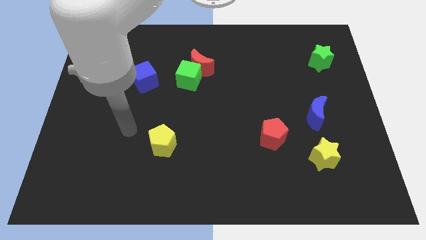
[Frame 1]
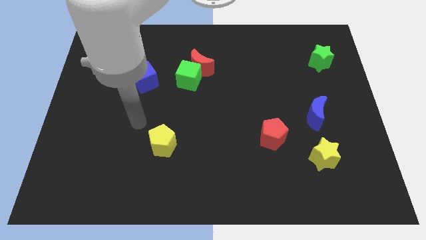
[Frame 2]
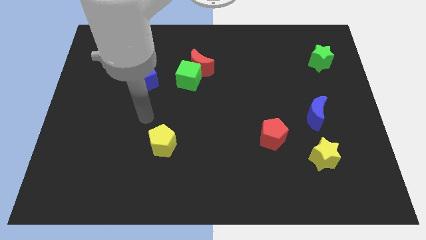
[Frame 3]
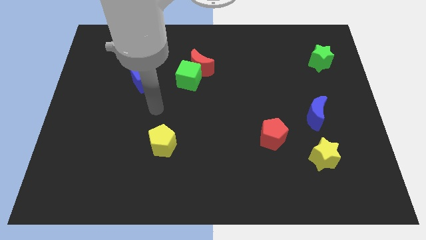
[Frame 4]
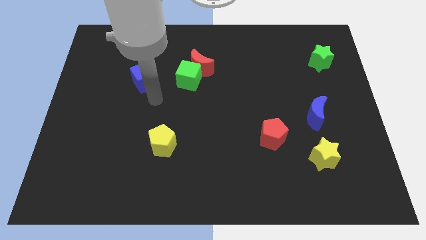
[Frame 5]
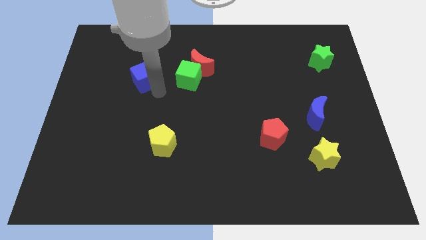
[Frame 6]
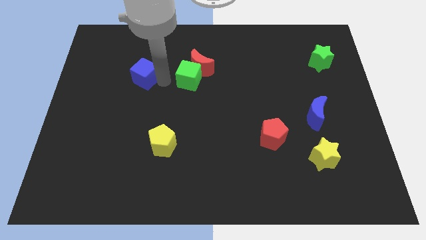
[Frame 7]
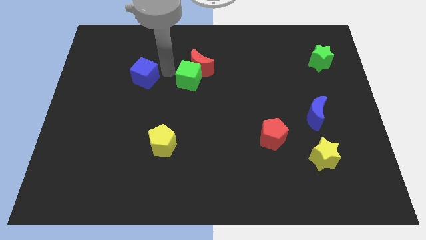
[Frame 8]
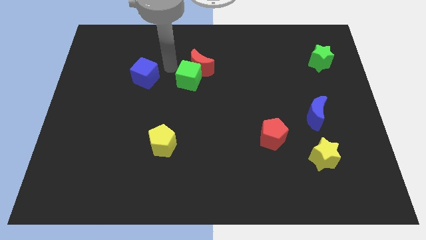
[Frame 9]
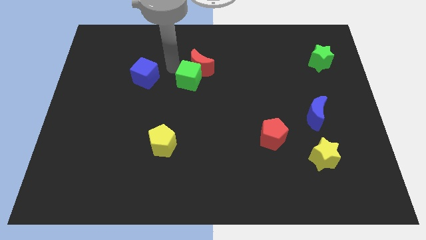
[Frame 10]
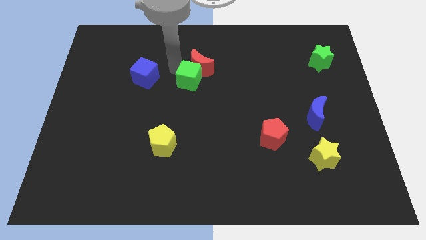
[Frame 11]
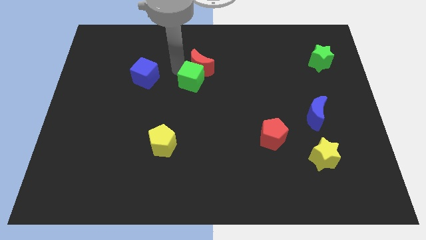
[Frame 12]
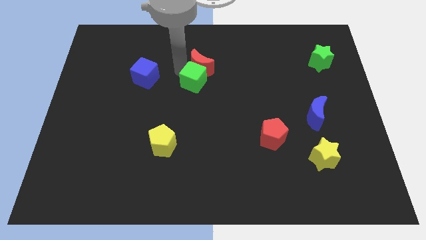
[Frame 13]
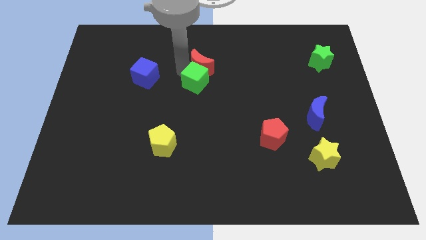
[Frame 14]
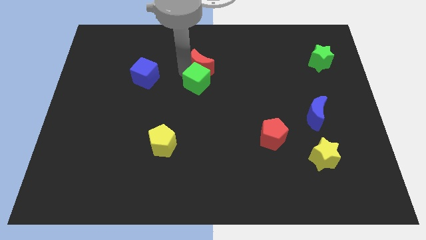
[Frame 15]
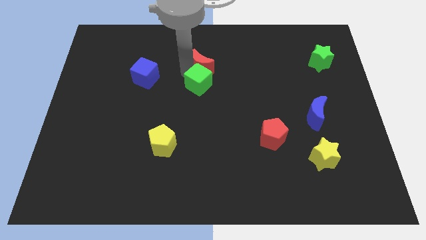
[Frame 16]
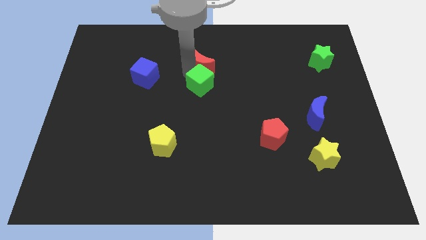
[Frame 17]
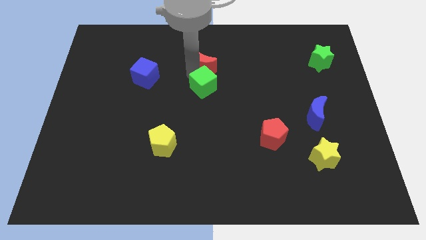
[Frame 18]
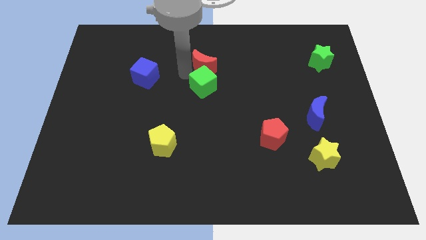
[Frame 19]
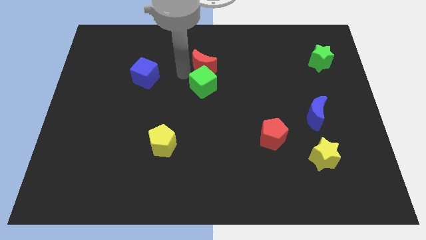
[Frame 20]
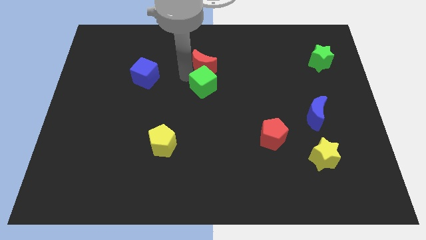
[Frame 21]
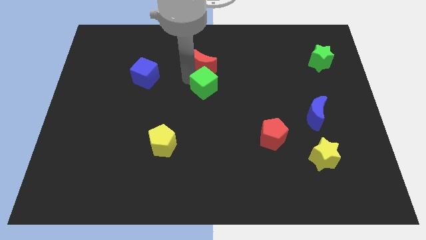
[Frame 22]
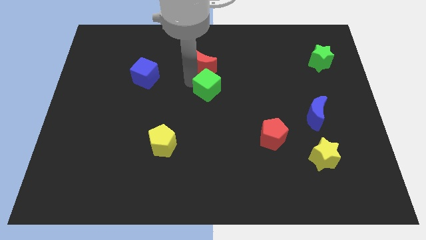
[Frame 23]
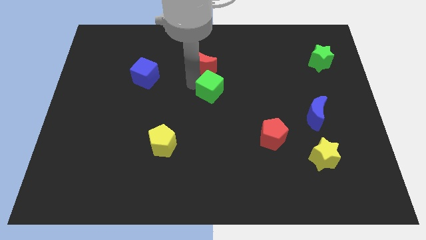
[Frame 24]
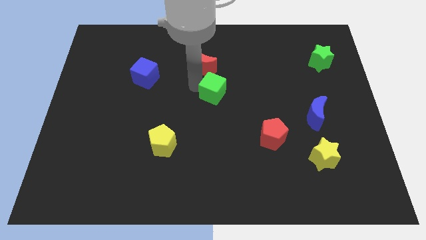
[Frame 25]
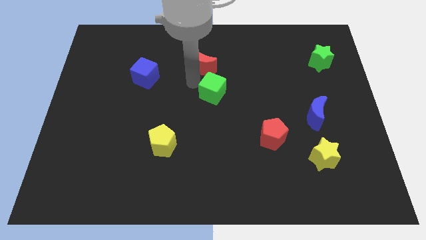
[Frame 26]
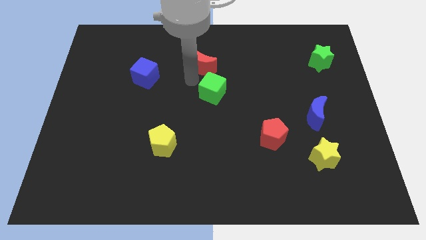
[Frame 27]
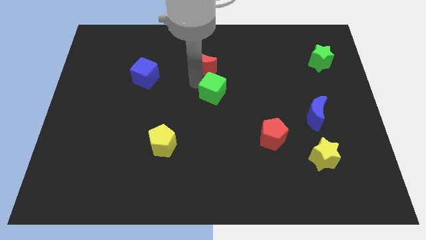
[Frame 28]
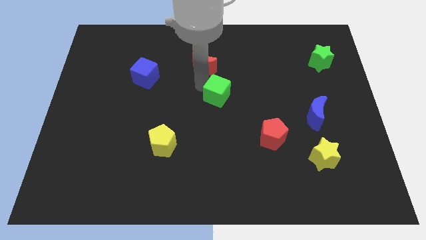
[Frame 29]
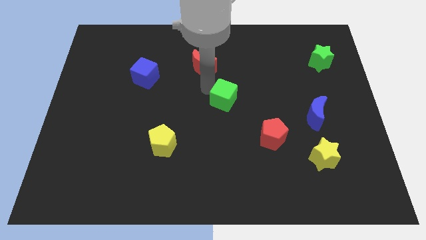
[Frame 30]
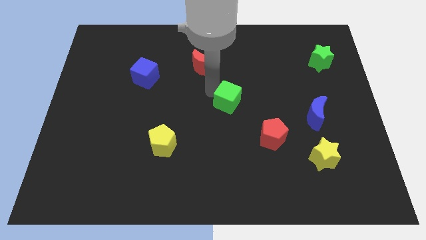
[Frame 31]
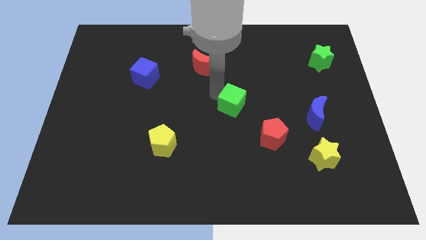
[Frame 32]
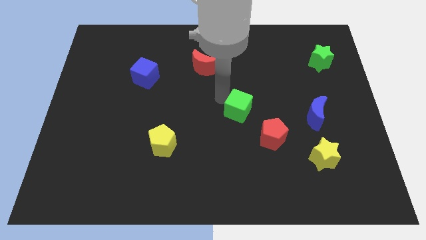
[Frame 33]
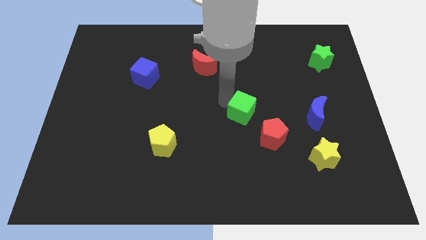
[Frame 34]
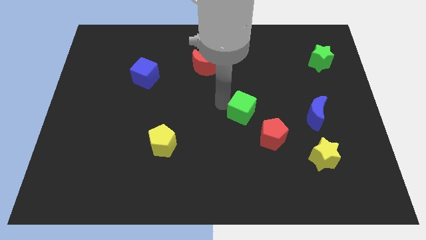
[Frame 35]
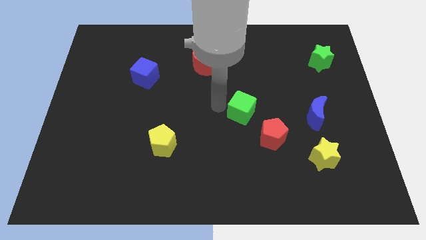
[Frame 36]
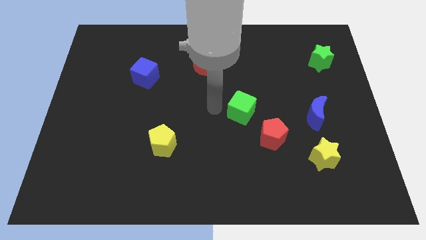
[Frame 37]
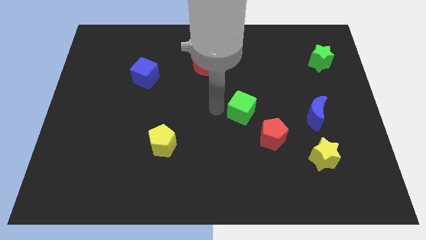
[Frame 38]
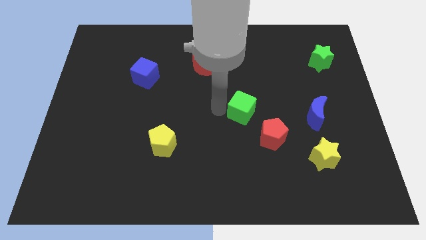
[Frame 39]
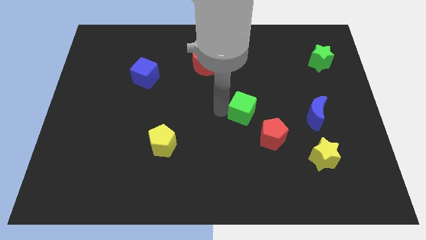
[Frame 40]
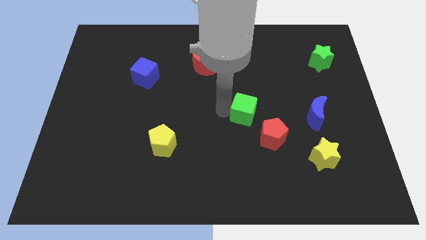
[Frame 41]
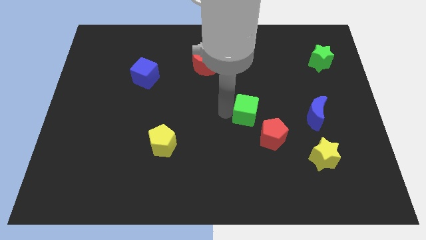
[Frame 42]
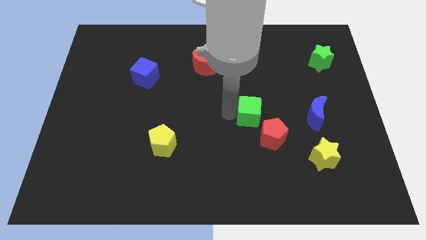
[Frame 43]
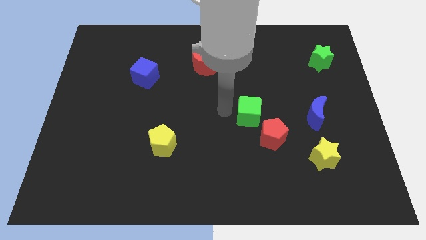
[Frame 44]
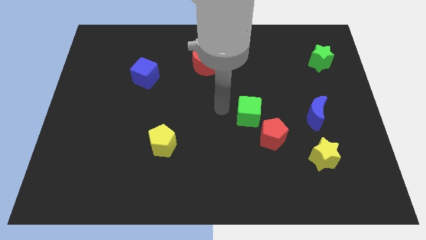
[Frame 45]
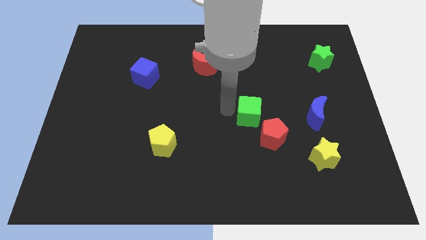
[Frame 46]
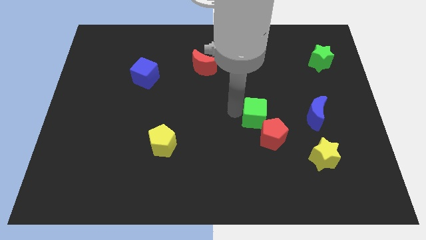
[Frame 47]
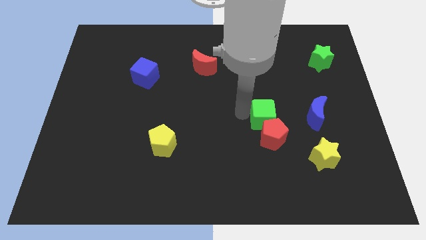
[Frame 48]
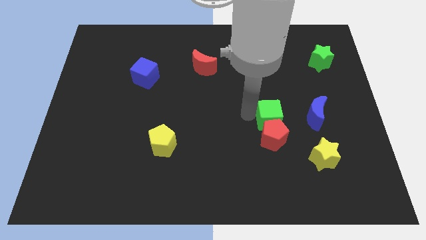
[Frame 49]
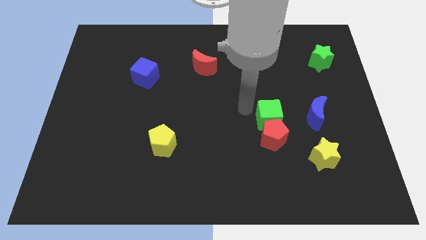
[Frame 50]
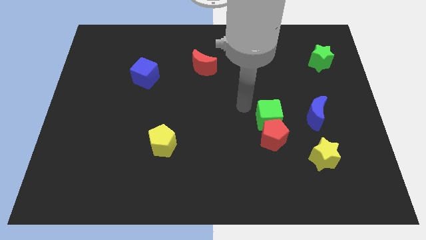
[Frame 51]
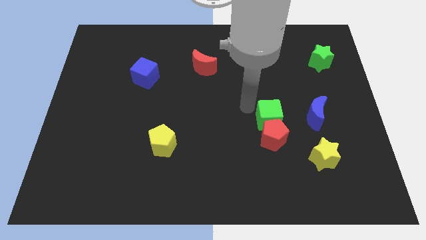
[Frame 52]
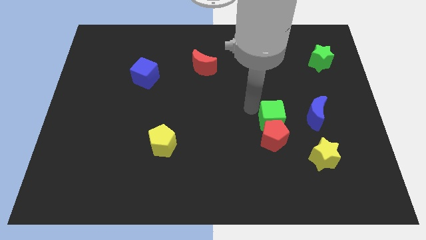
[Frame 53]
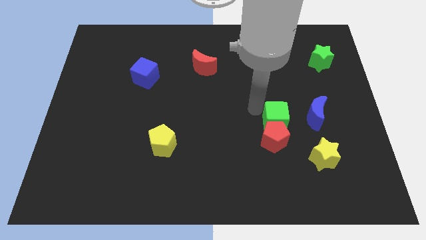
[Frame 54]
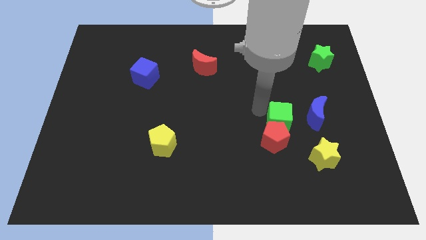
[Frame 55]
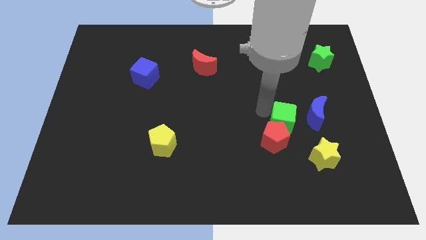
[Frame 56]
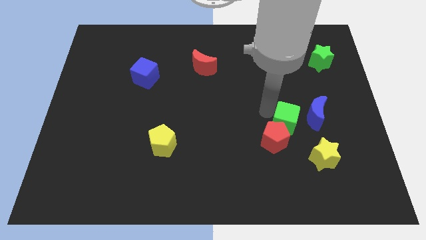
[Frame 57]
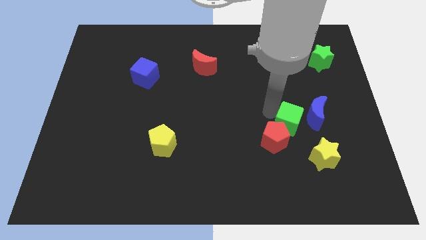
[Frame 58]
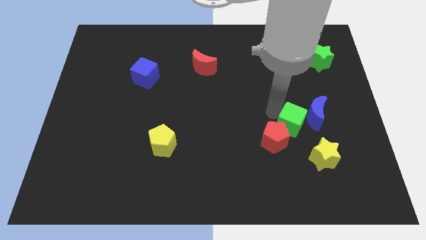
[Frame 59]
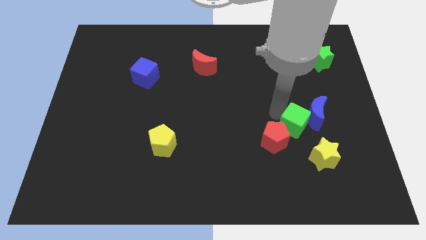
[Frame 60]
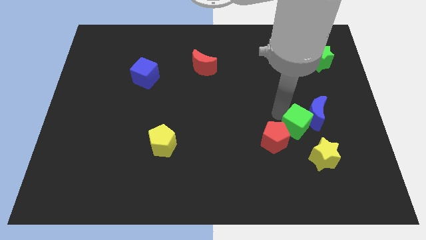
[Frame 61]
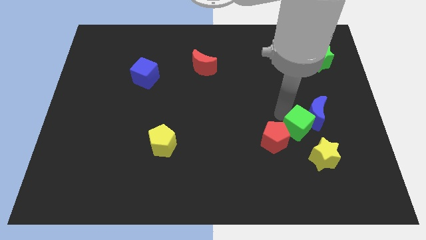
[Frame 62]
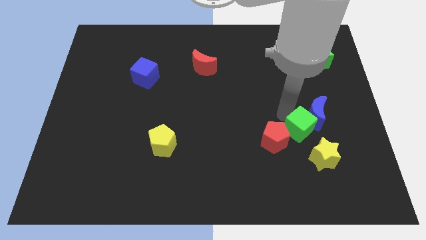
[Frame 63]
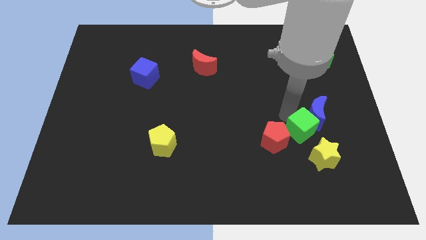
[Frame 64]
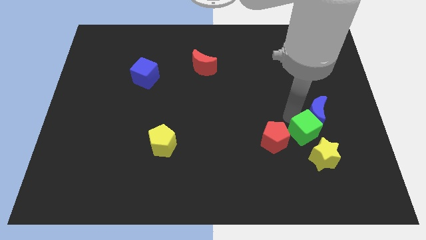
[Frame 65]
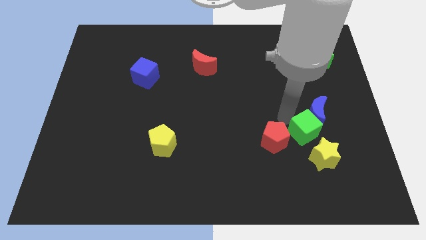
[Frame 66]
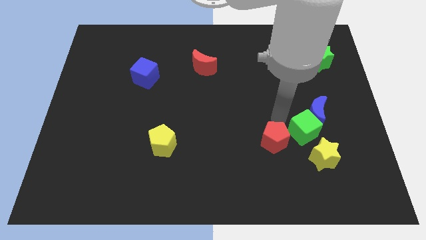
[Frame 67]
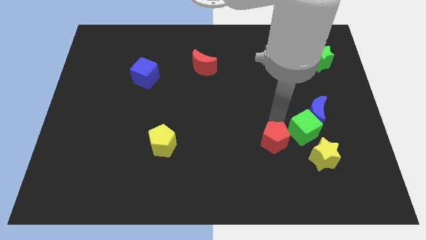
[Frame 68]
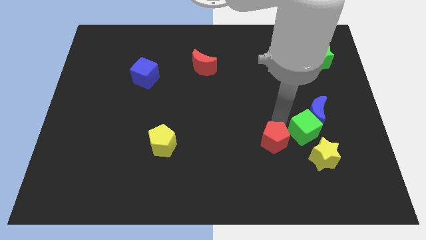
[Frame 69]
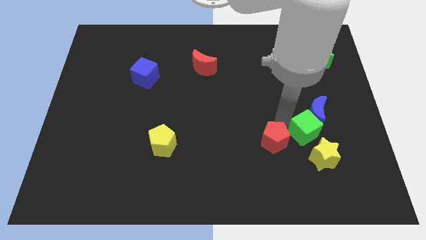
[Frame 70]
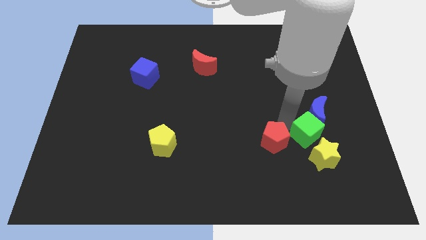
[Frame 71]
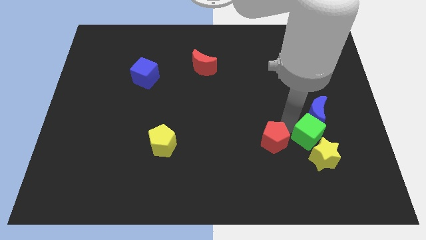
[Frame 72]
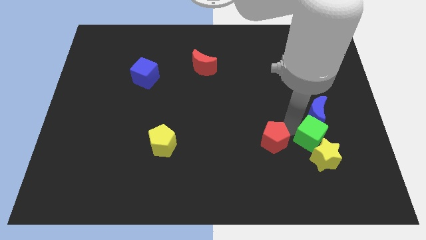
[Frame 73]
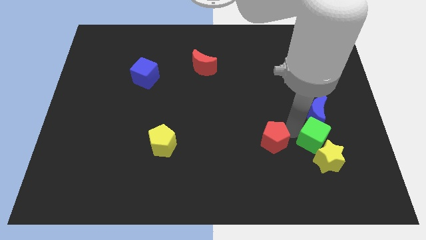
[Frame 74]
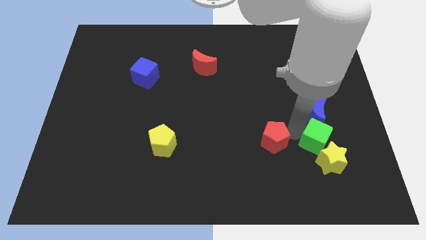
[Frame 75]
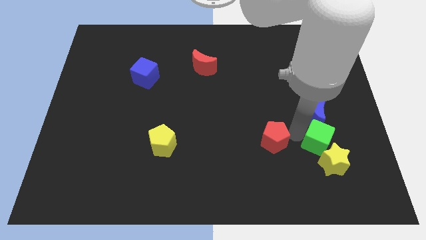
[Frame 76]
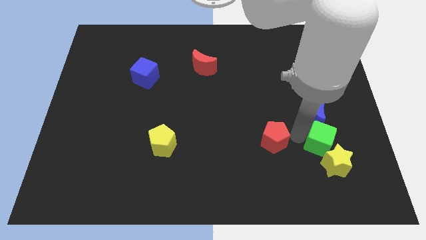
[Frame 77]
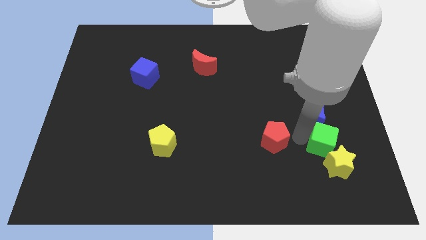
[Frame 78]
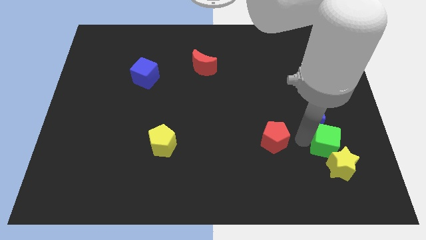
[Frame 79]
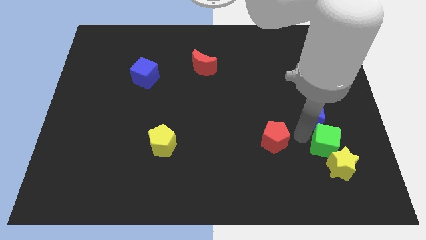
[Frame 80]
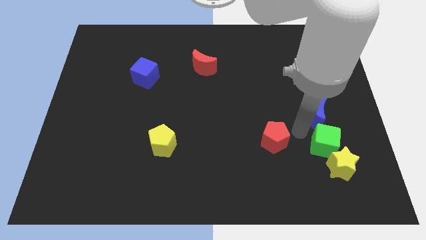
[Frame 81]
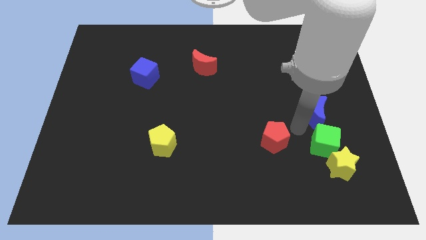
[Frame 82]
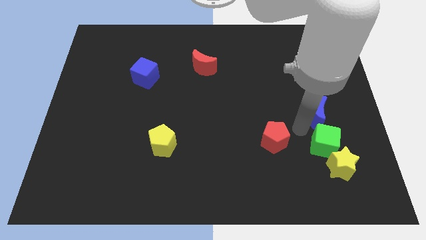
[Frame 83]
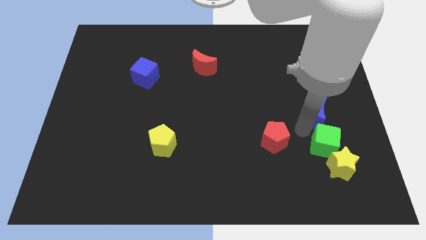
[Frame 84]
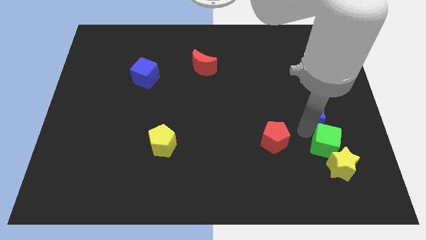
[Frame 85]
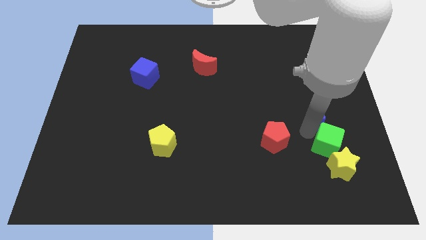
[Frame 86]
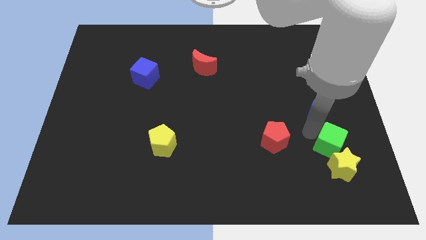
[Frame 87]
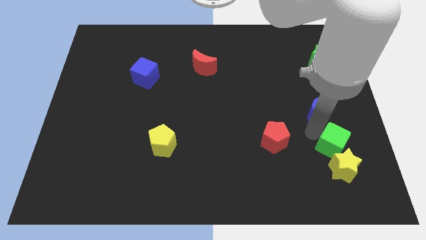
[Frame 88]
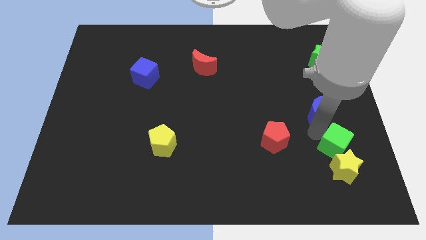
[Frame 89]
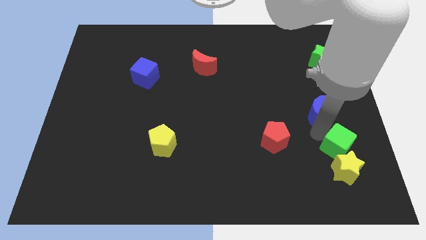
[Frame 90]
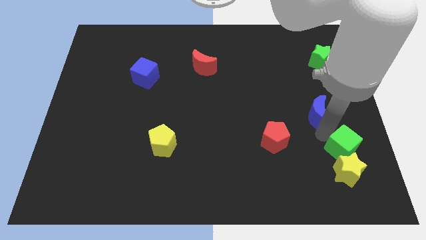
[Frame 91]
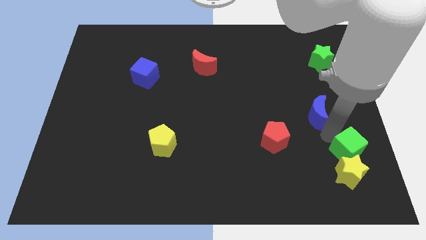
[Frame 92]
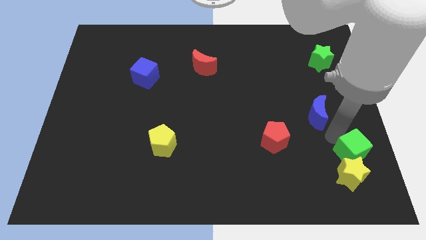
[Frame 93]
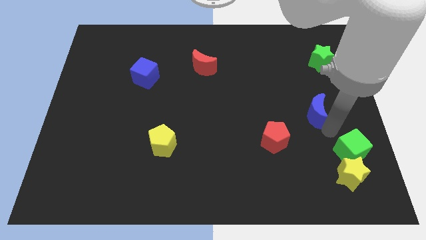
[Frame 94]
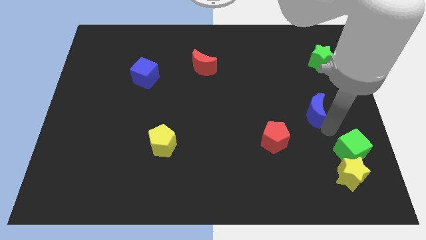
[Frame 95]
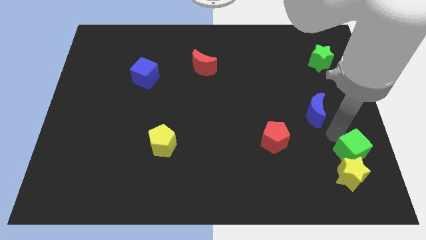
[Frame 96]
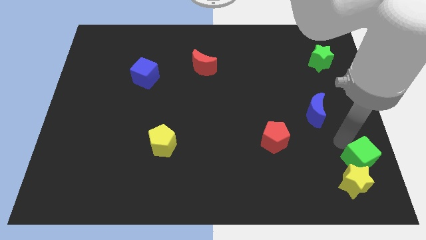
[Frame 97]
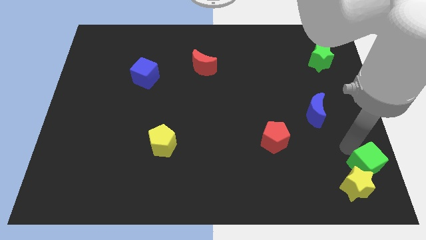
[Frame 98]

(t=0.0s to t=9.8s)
push the green cube to the bottom right of the board
